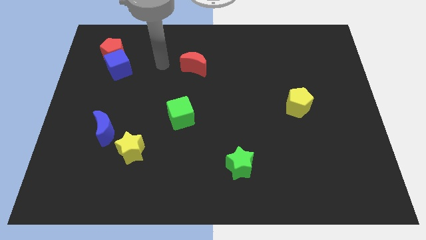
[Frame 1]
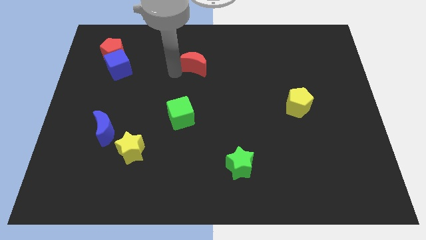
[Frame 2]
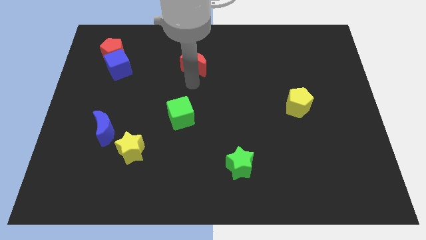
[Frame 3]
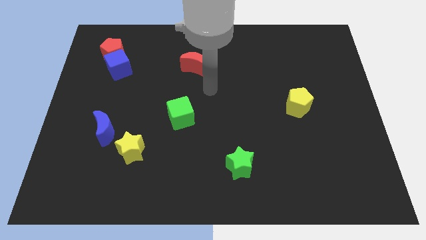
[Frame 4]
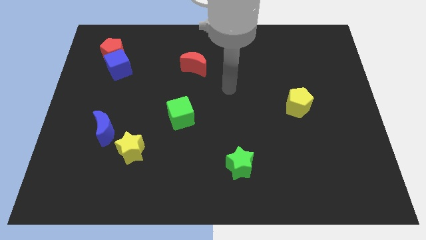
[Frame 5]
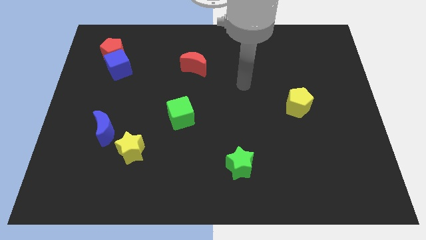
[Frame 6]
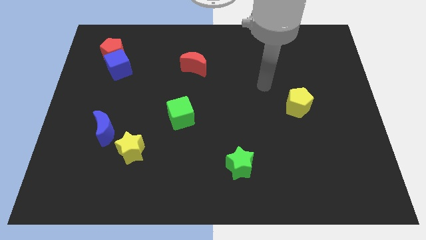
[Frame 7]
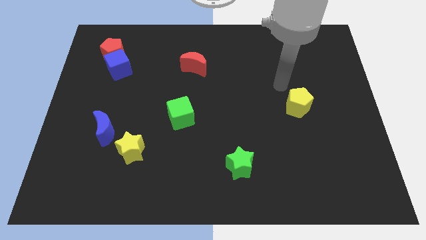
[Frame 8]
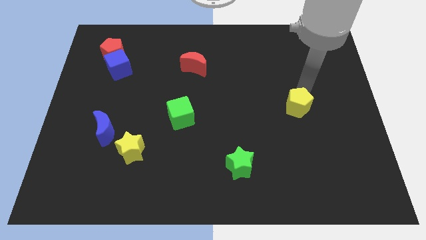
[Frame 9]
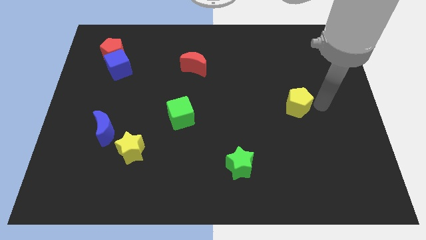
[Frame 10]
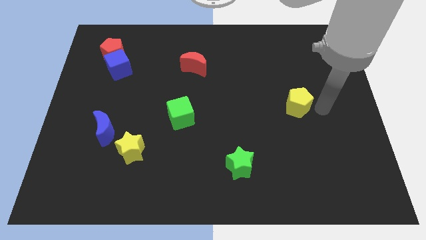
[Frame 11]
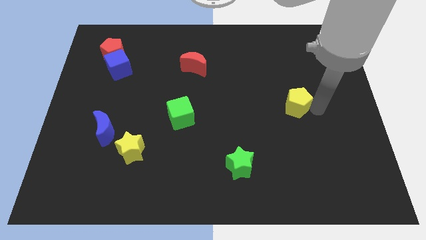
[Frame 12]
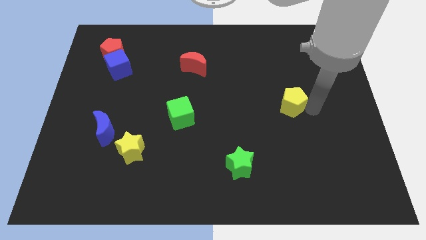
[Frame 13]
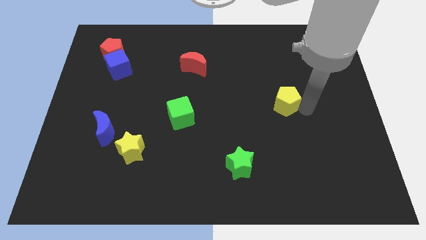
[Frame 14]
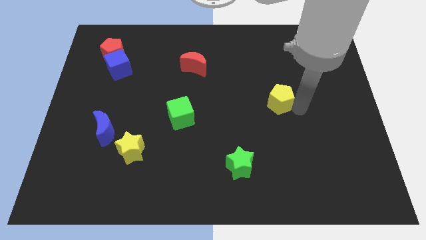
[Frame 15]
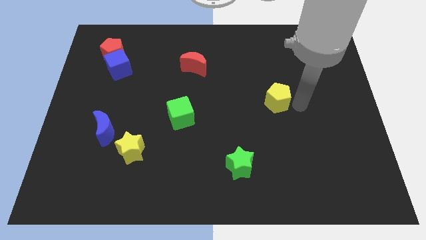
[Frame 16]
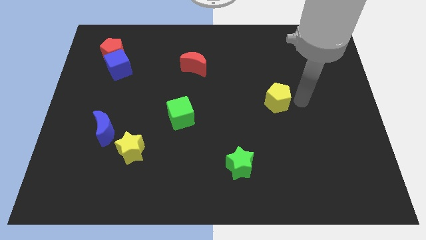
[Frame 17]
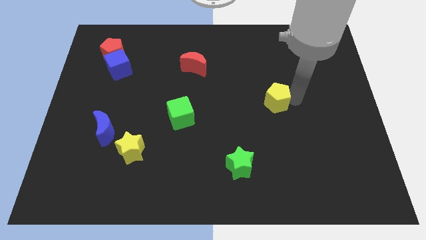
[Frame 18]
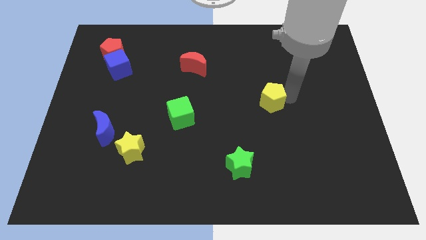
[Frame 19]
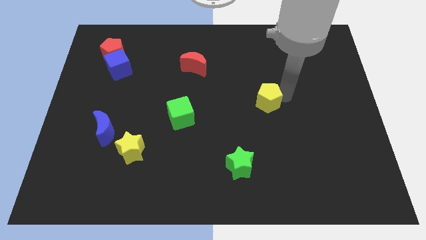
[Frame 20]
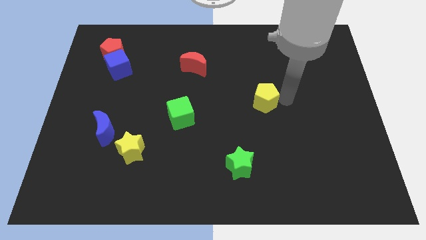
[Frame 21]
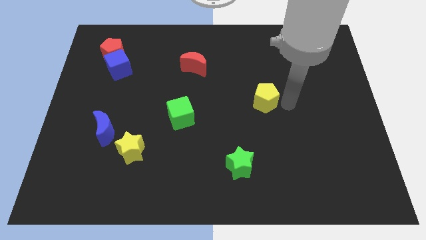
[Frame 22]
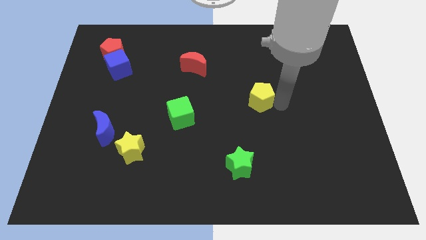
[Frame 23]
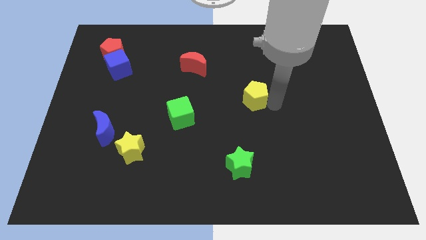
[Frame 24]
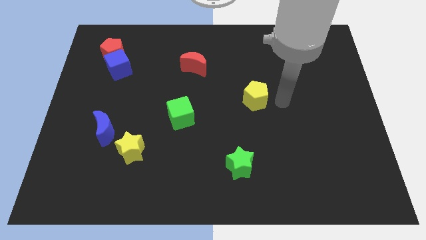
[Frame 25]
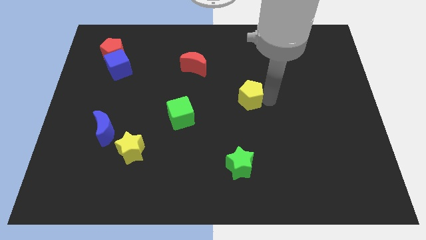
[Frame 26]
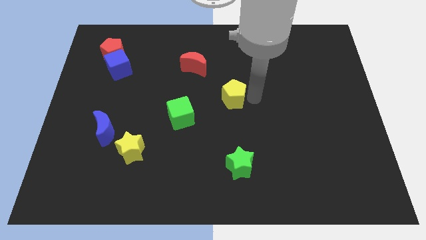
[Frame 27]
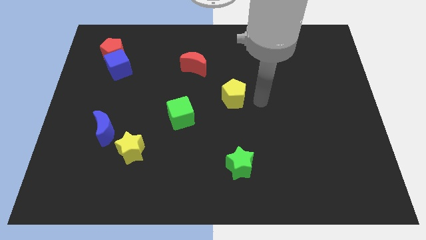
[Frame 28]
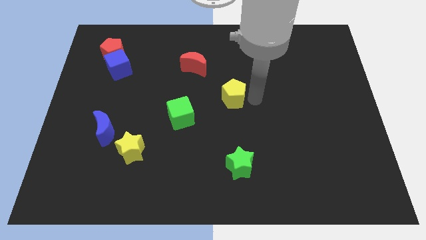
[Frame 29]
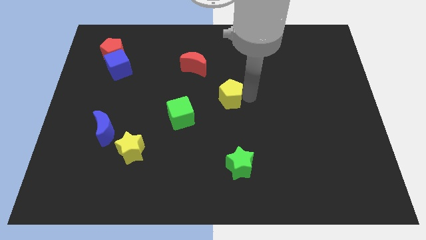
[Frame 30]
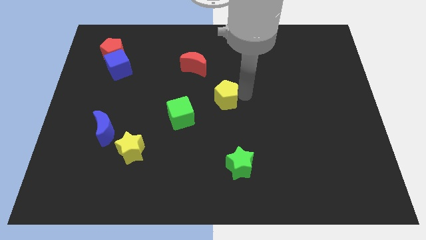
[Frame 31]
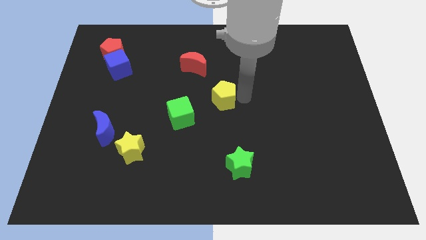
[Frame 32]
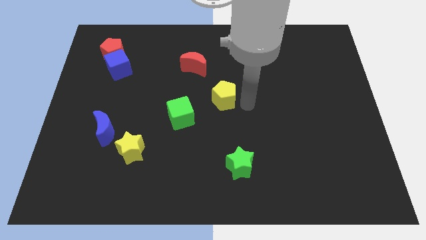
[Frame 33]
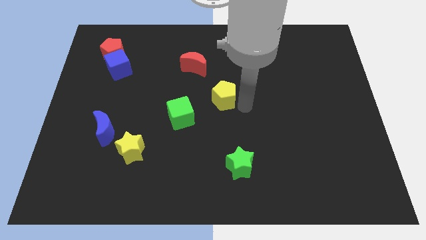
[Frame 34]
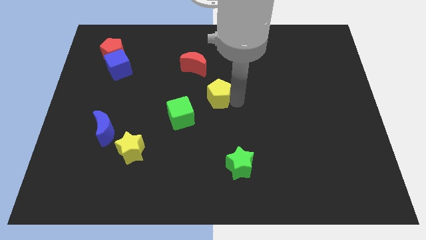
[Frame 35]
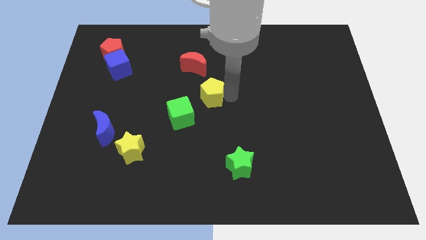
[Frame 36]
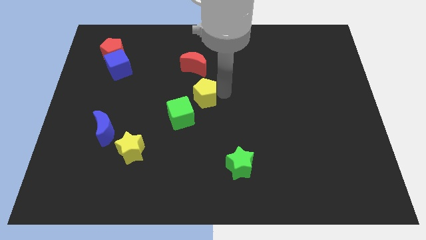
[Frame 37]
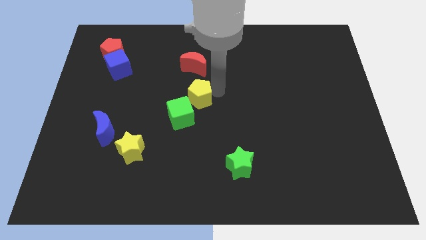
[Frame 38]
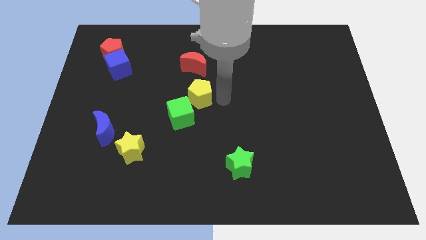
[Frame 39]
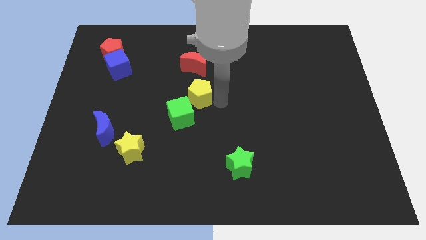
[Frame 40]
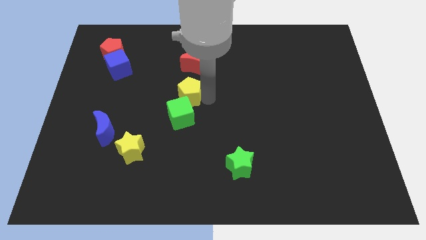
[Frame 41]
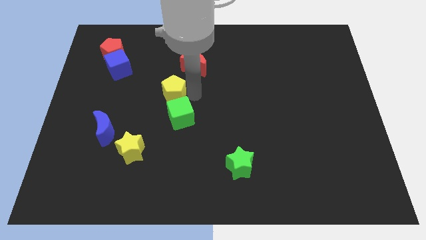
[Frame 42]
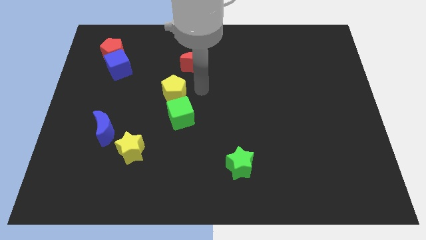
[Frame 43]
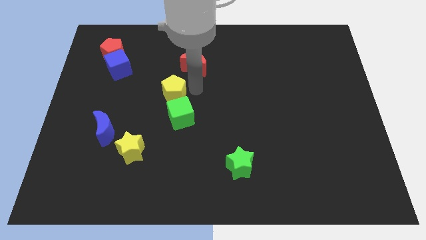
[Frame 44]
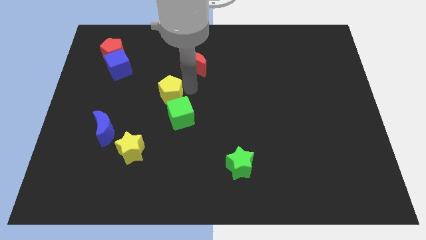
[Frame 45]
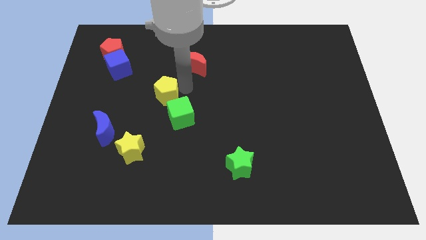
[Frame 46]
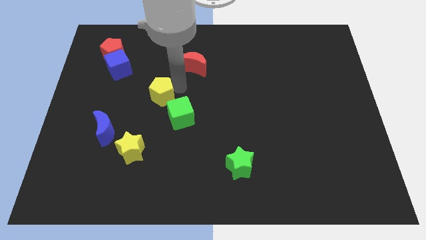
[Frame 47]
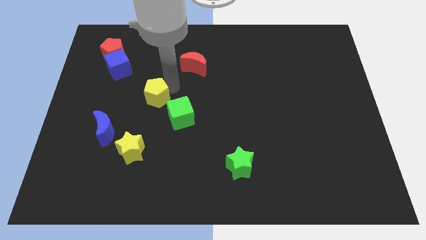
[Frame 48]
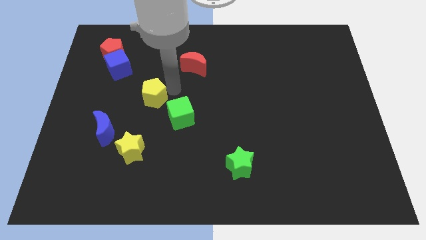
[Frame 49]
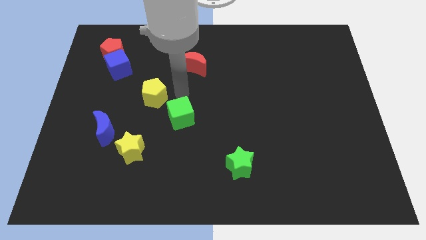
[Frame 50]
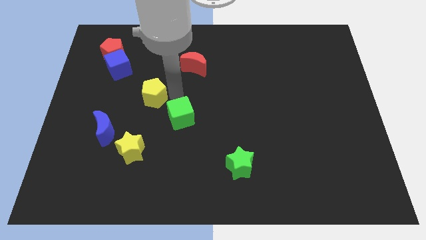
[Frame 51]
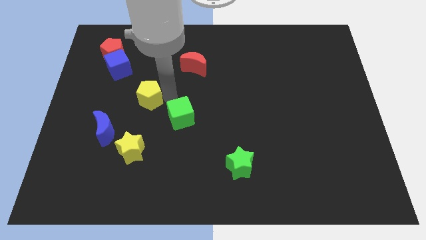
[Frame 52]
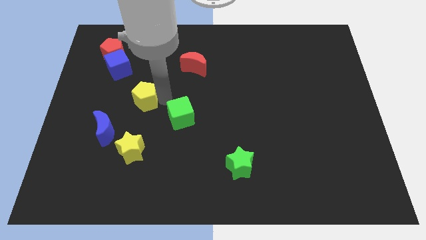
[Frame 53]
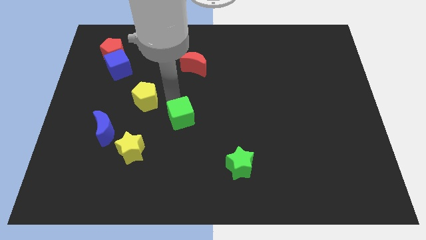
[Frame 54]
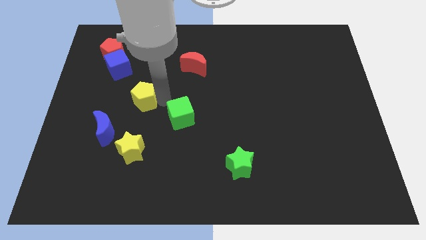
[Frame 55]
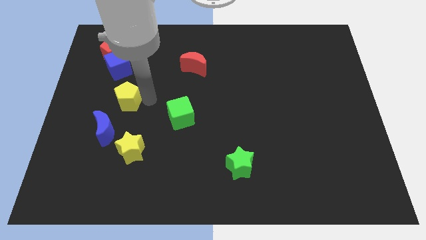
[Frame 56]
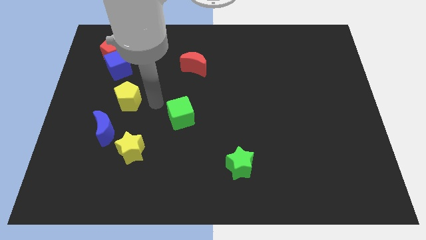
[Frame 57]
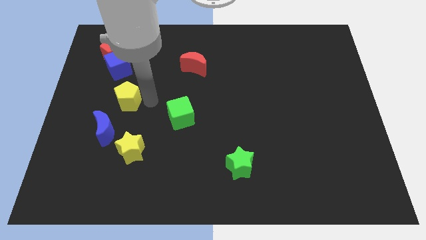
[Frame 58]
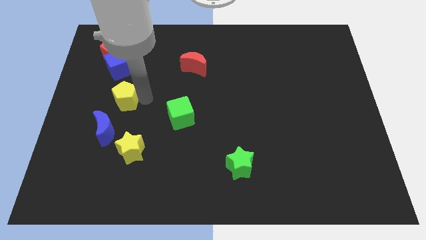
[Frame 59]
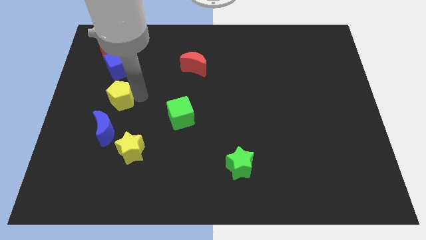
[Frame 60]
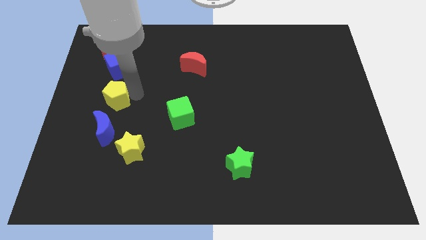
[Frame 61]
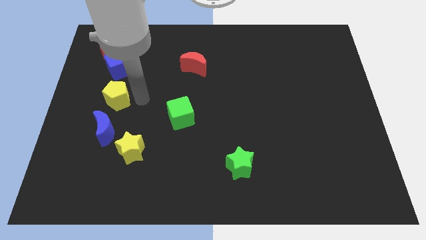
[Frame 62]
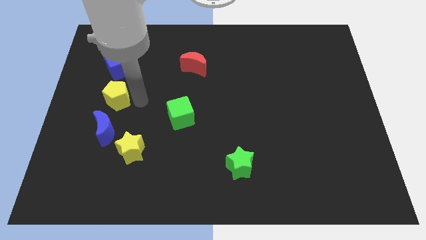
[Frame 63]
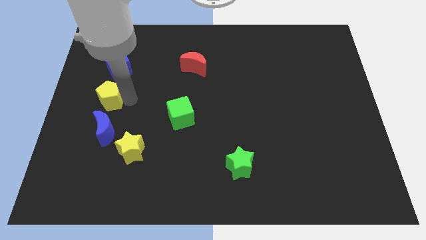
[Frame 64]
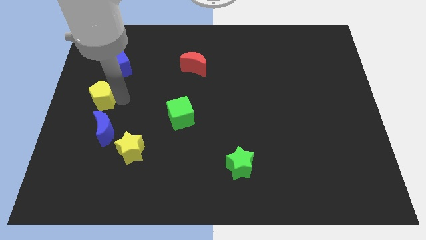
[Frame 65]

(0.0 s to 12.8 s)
push the yellow pentagon to the center left
